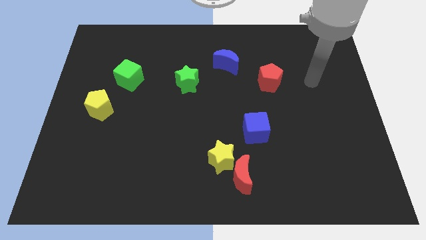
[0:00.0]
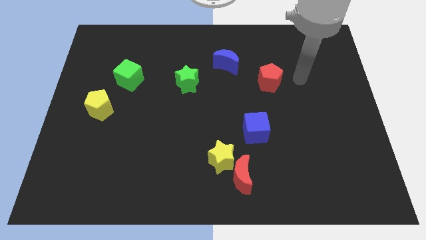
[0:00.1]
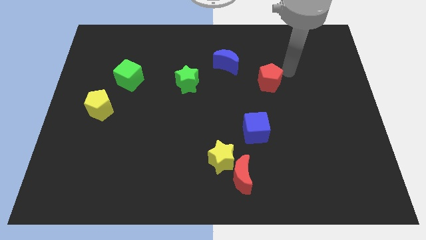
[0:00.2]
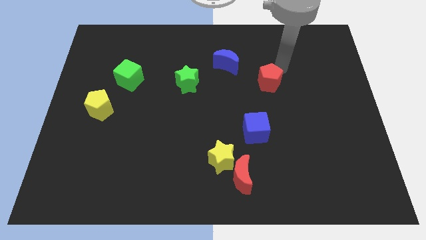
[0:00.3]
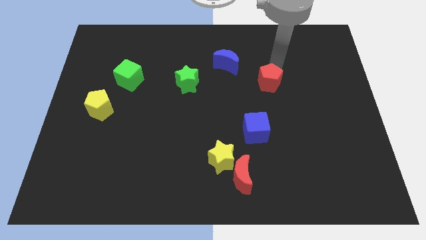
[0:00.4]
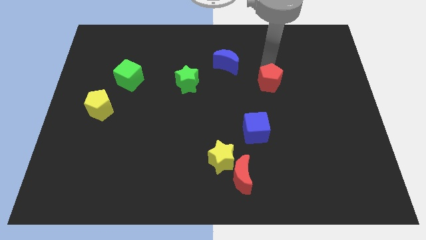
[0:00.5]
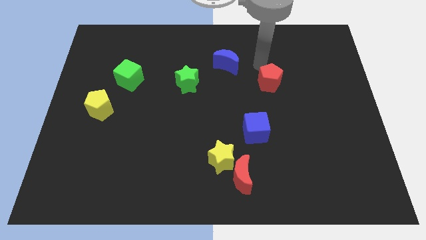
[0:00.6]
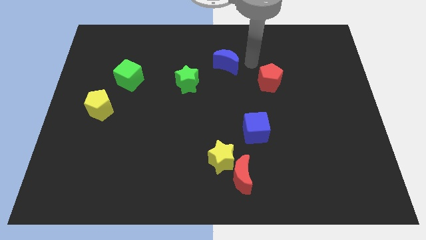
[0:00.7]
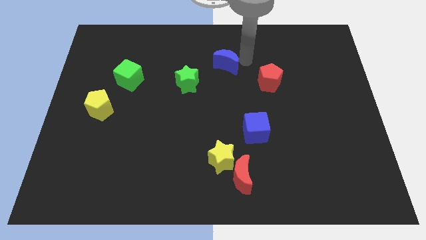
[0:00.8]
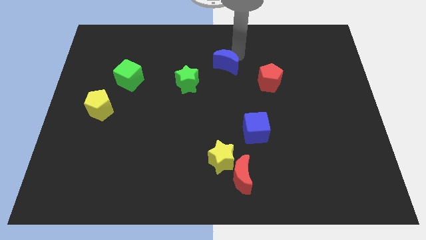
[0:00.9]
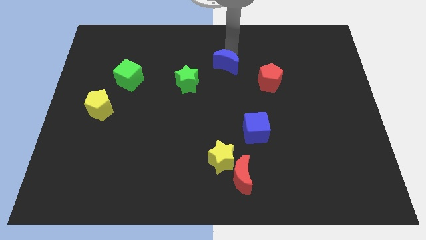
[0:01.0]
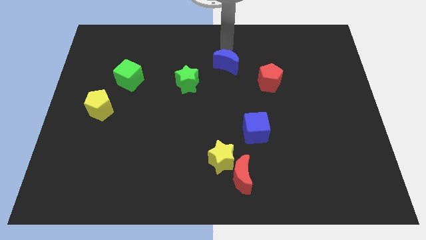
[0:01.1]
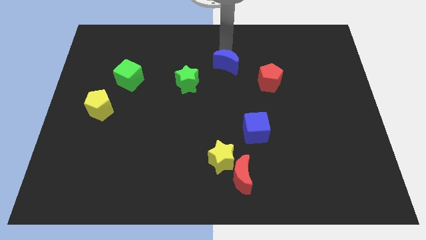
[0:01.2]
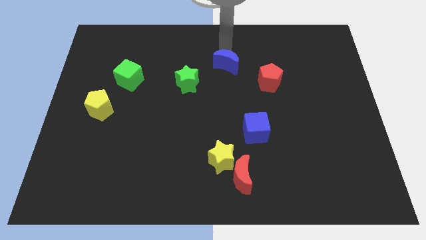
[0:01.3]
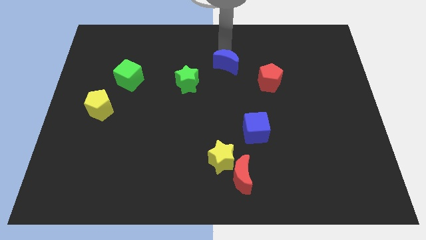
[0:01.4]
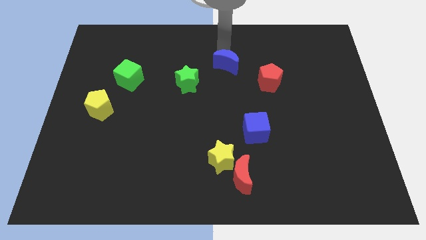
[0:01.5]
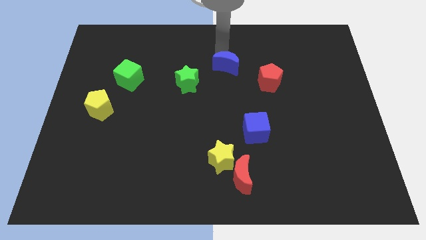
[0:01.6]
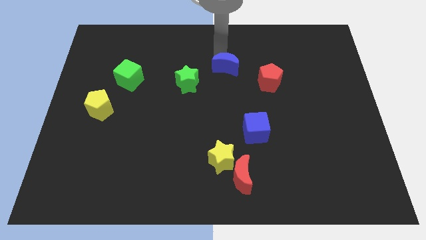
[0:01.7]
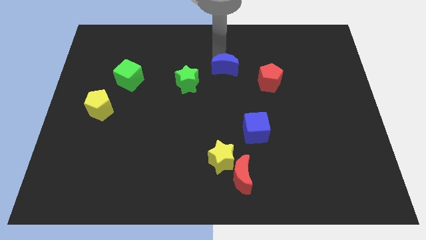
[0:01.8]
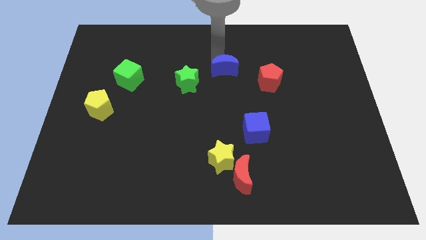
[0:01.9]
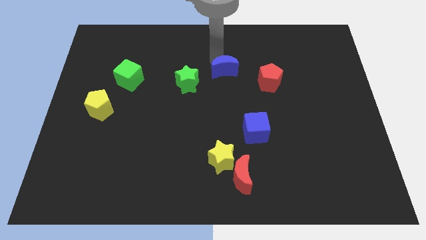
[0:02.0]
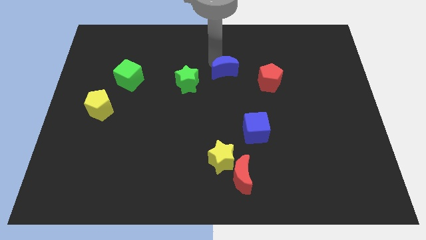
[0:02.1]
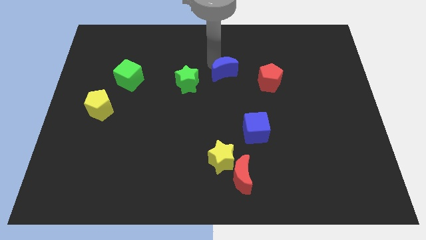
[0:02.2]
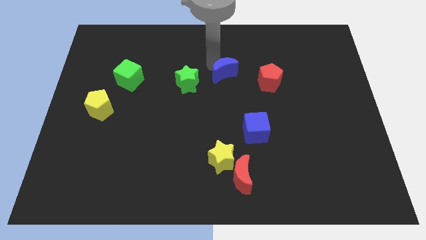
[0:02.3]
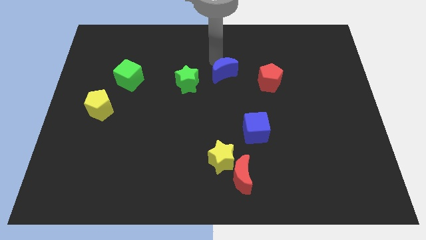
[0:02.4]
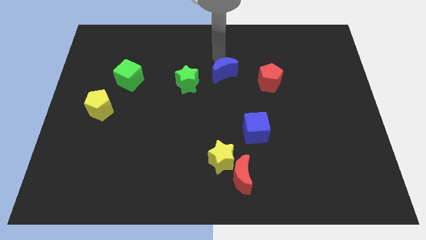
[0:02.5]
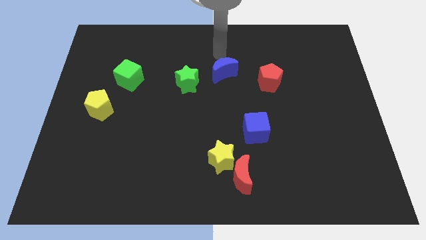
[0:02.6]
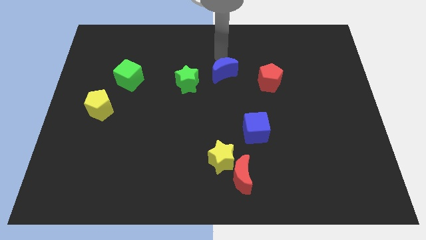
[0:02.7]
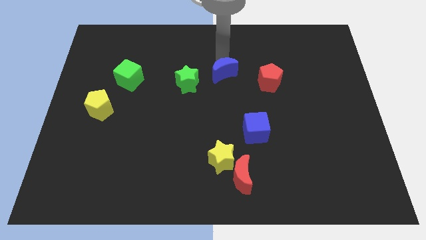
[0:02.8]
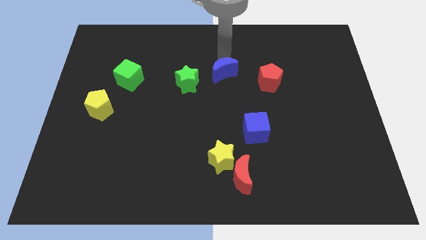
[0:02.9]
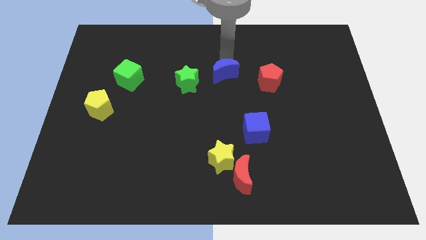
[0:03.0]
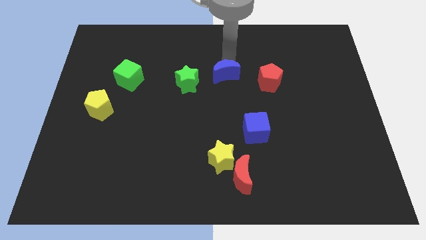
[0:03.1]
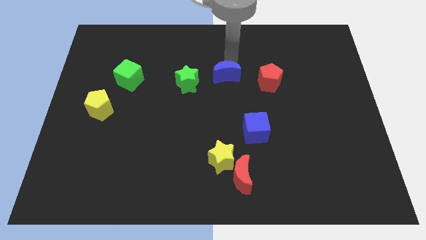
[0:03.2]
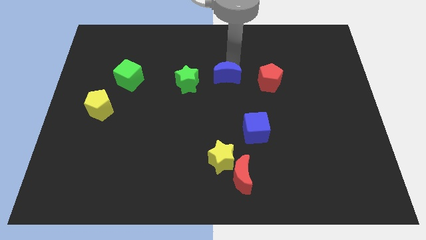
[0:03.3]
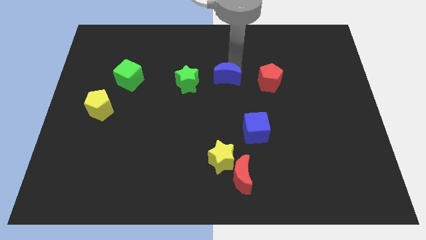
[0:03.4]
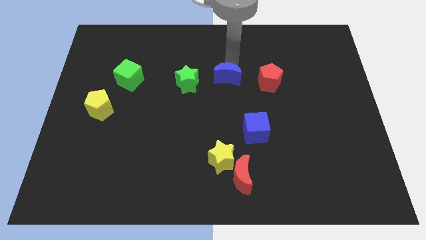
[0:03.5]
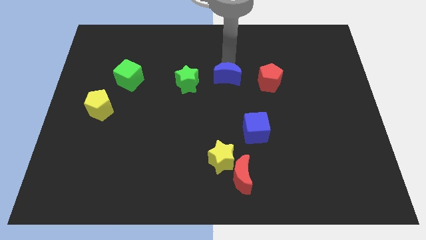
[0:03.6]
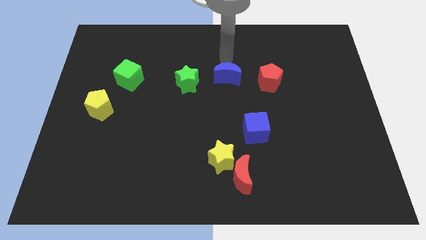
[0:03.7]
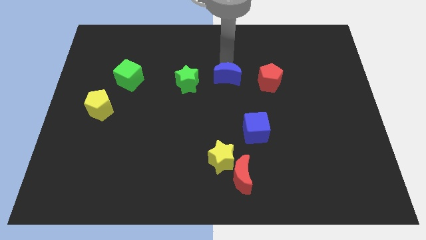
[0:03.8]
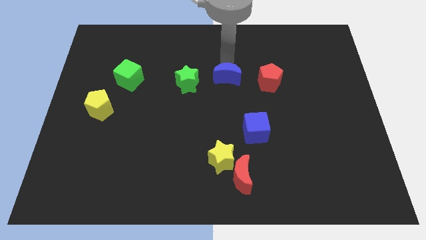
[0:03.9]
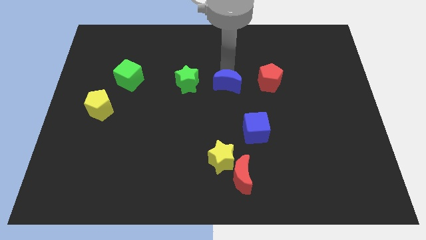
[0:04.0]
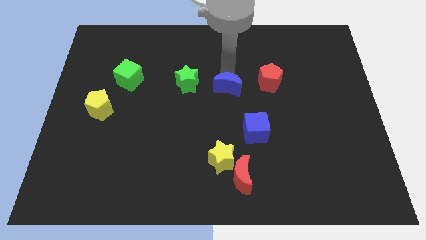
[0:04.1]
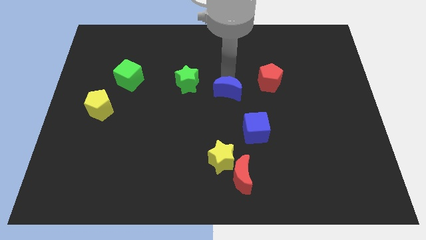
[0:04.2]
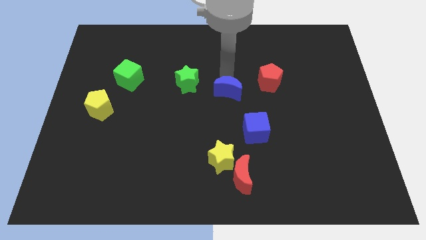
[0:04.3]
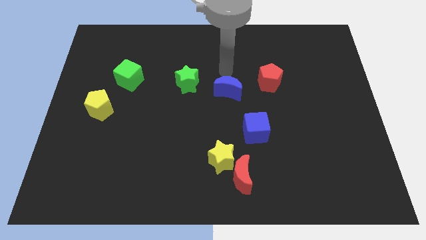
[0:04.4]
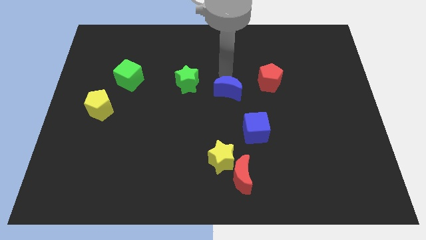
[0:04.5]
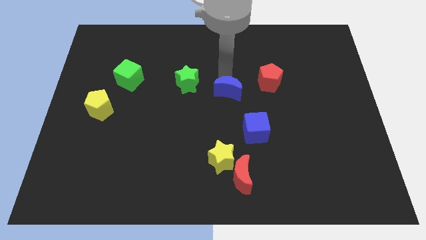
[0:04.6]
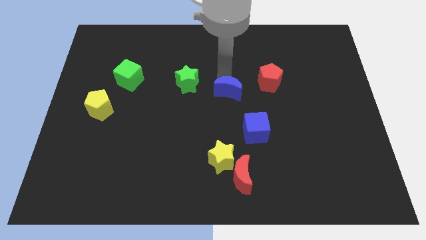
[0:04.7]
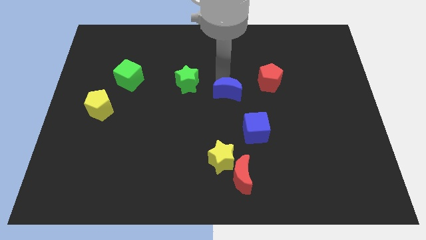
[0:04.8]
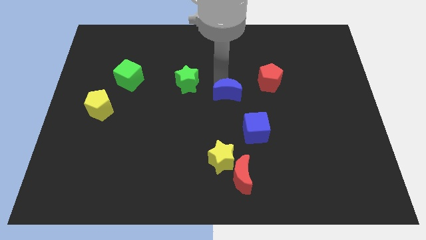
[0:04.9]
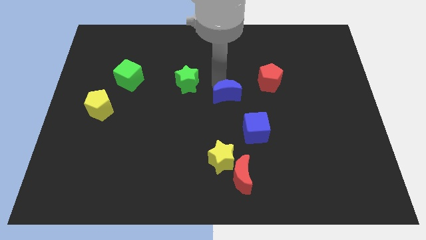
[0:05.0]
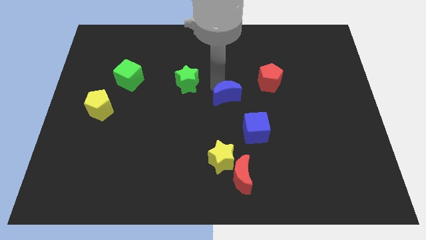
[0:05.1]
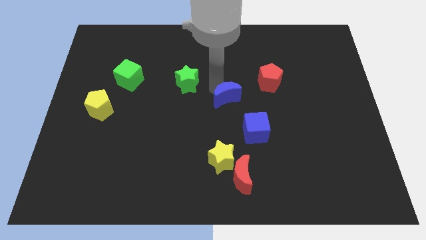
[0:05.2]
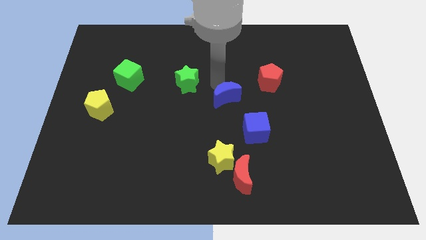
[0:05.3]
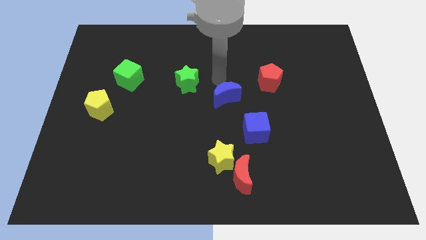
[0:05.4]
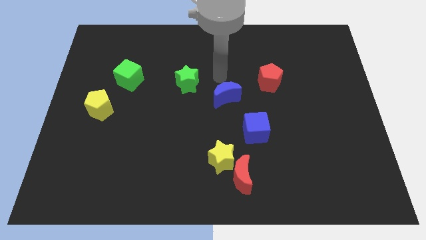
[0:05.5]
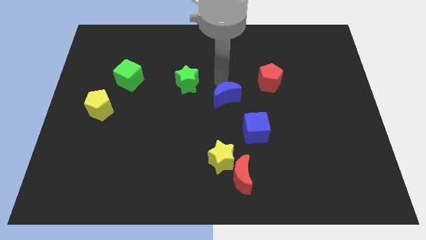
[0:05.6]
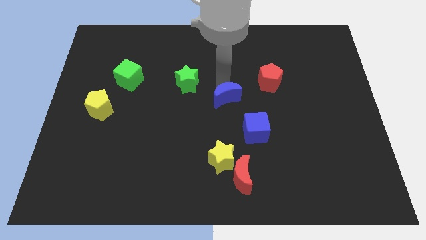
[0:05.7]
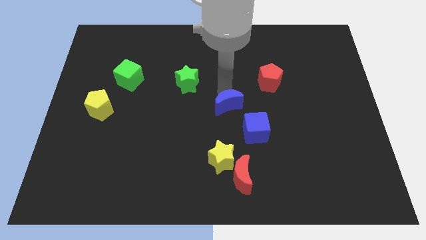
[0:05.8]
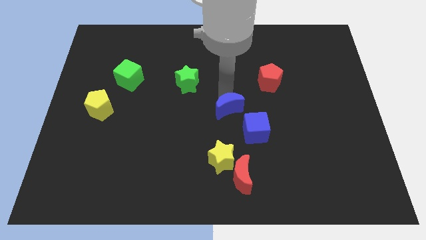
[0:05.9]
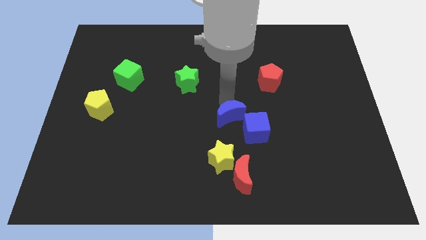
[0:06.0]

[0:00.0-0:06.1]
push the blue moon to the top of the red moon

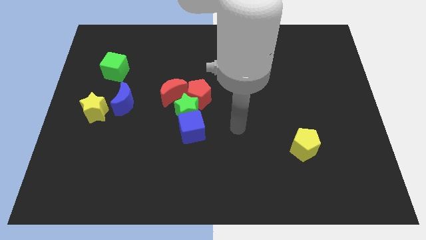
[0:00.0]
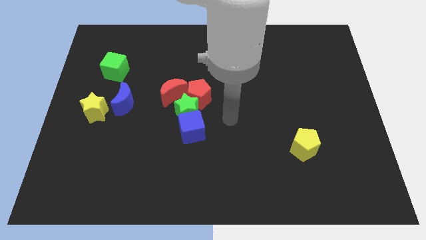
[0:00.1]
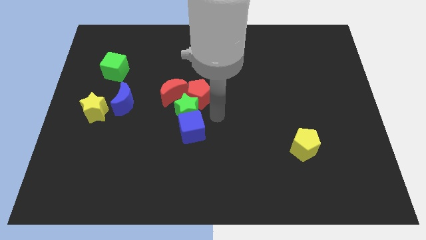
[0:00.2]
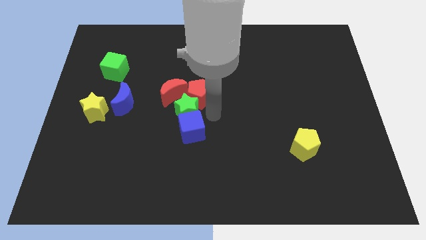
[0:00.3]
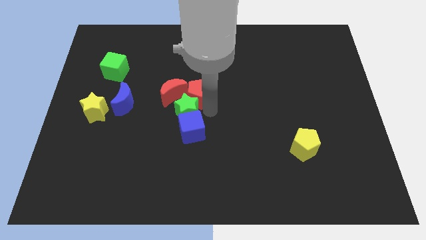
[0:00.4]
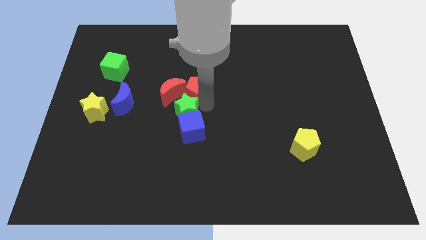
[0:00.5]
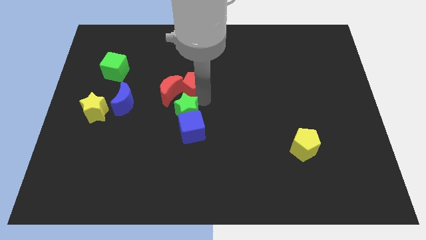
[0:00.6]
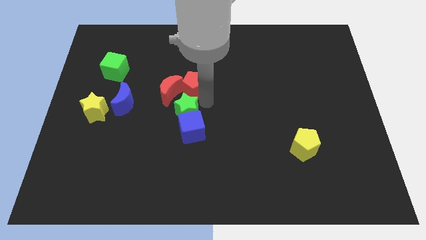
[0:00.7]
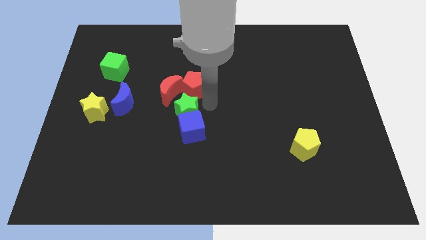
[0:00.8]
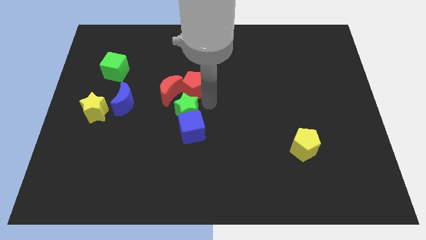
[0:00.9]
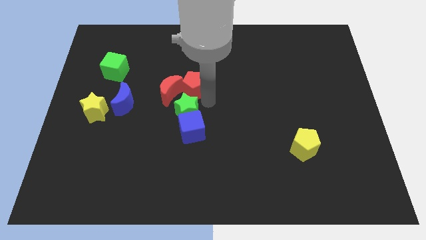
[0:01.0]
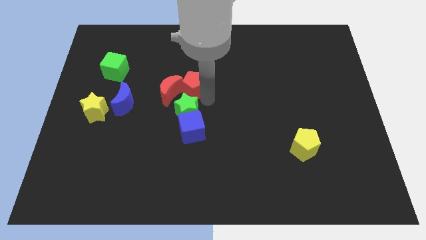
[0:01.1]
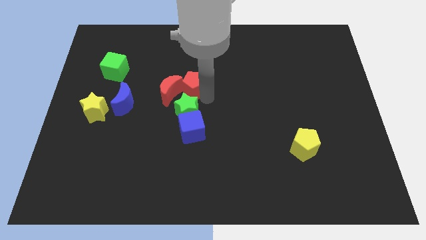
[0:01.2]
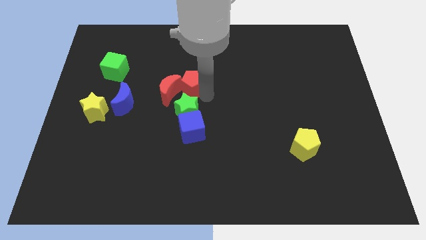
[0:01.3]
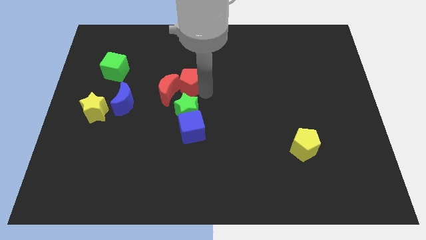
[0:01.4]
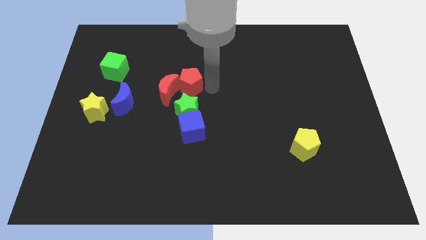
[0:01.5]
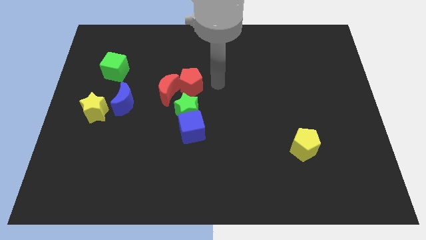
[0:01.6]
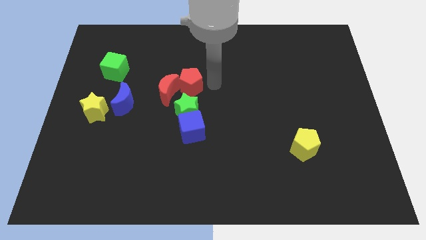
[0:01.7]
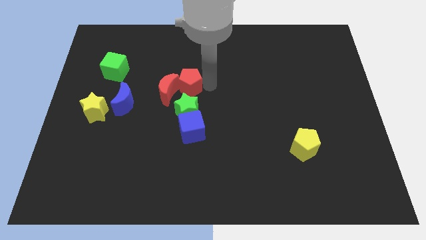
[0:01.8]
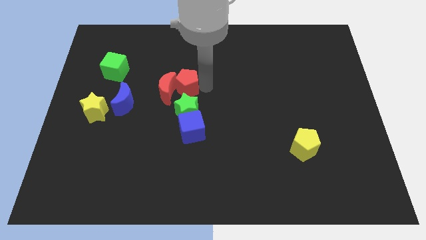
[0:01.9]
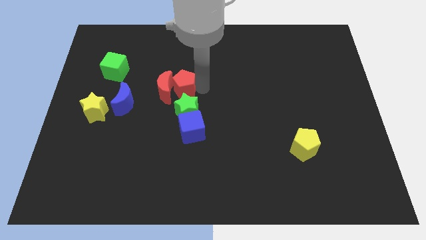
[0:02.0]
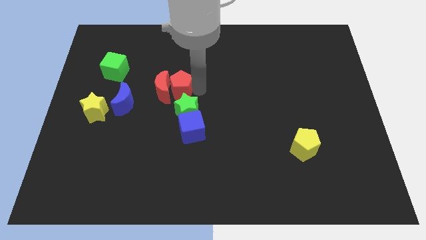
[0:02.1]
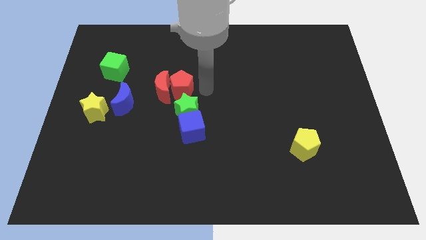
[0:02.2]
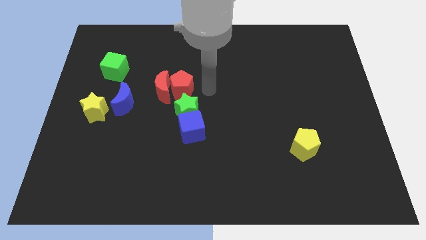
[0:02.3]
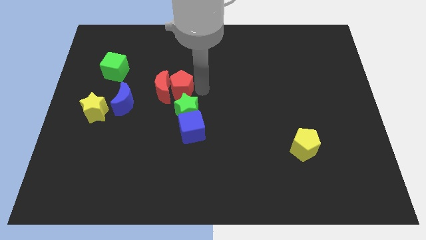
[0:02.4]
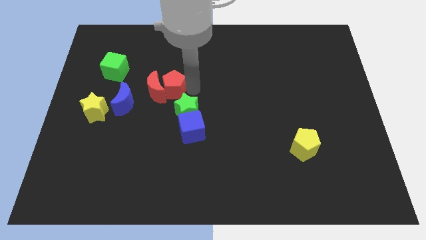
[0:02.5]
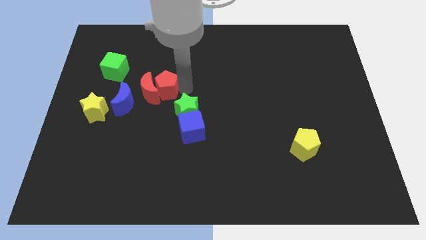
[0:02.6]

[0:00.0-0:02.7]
slide the red pentagon to the top right of the blue moon
